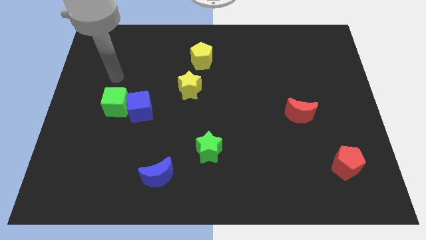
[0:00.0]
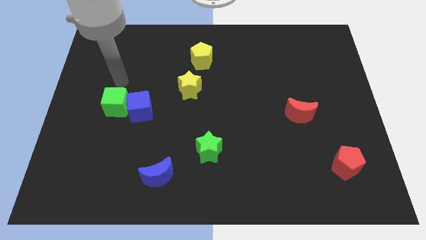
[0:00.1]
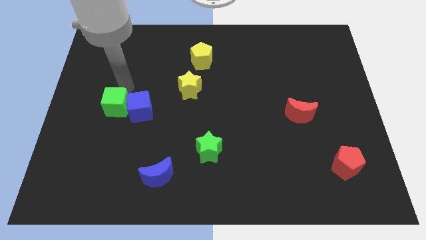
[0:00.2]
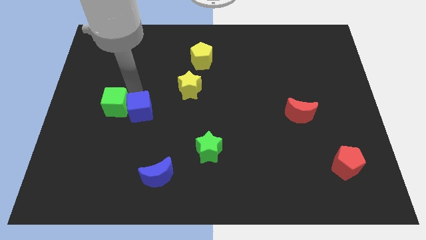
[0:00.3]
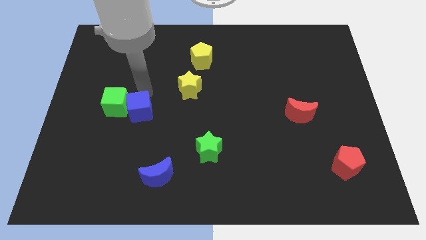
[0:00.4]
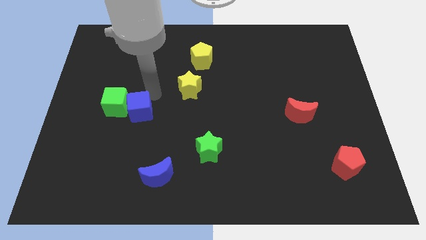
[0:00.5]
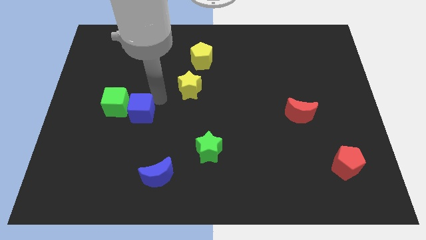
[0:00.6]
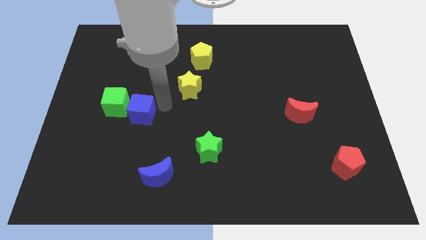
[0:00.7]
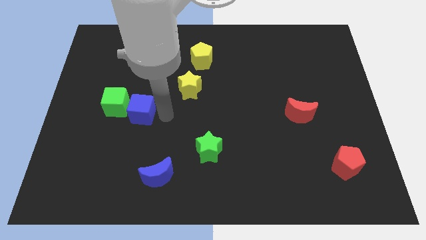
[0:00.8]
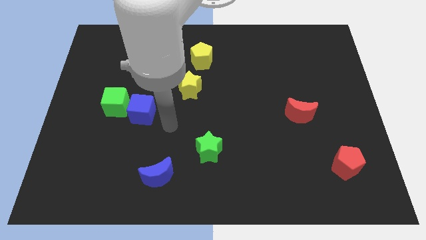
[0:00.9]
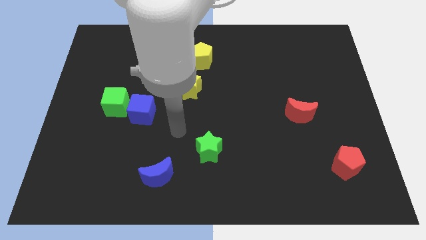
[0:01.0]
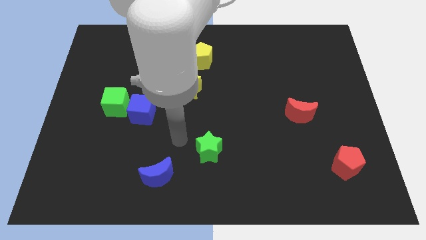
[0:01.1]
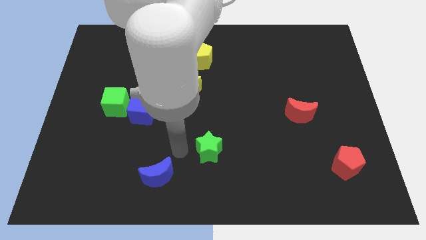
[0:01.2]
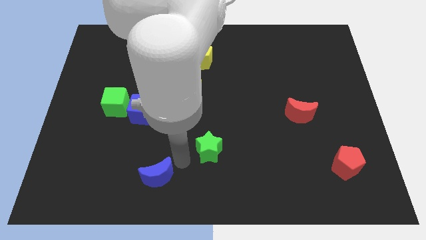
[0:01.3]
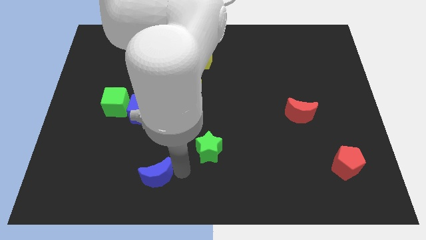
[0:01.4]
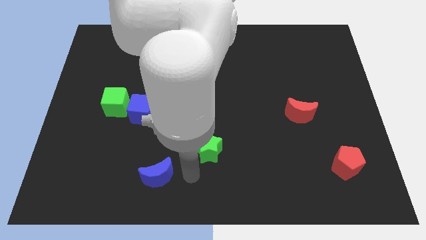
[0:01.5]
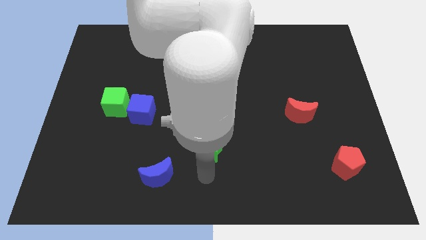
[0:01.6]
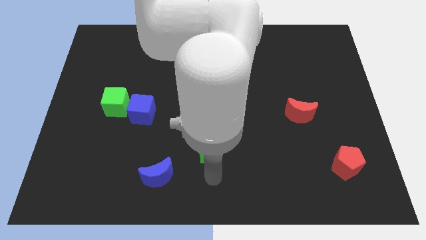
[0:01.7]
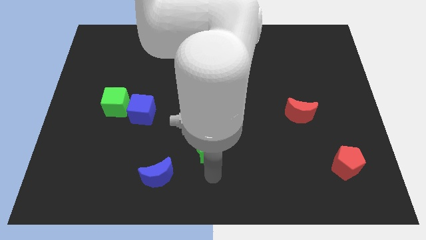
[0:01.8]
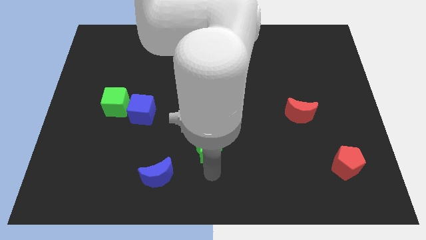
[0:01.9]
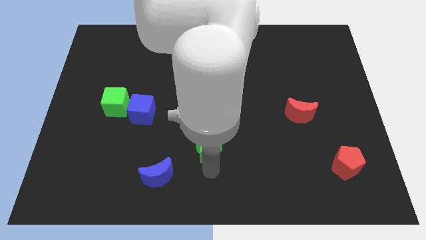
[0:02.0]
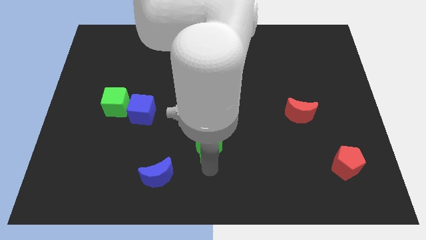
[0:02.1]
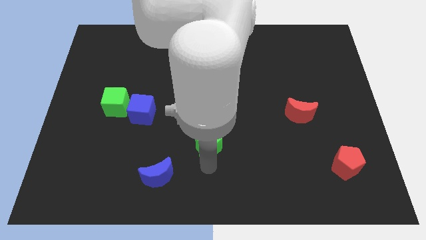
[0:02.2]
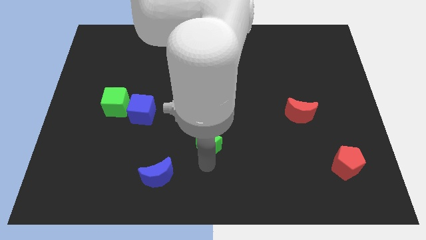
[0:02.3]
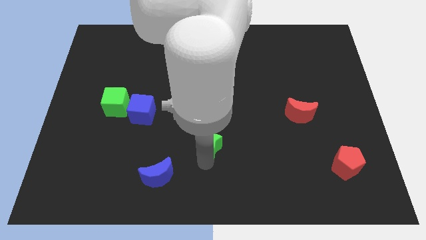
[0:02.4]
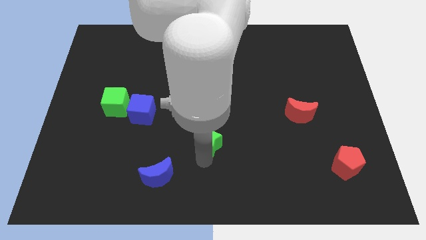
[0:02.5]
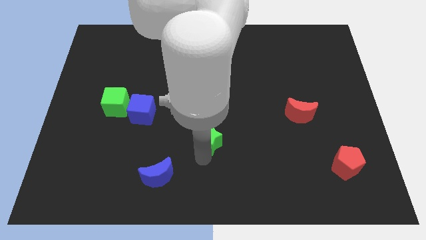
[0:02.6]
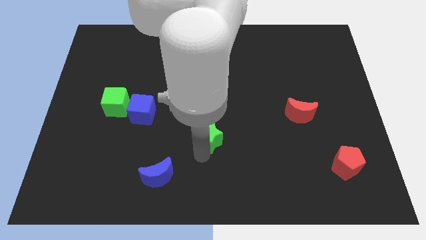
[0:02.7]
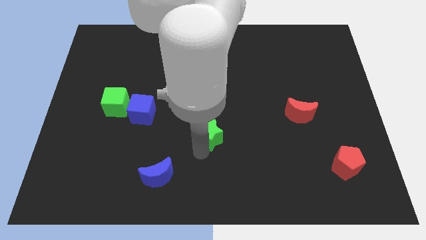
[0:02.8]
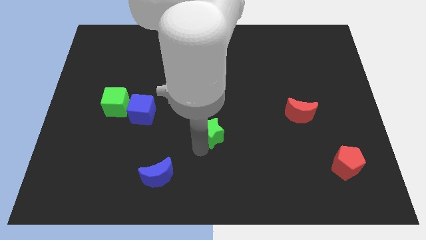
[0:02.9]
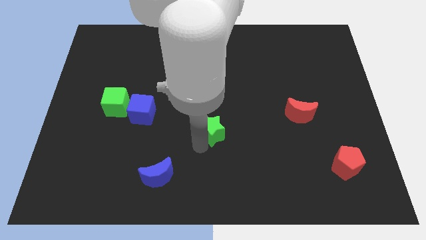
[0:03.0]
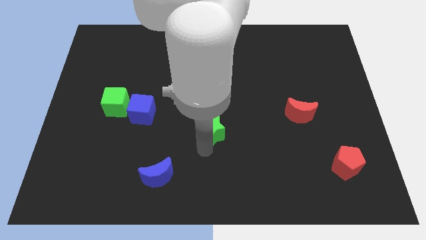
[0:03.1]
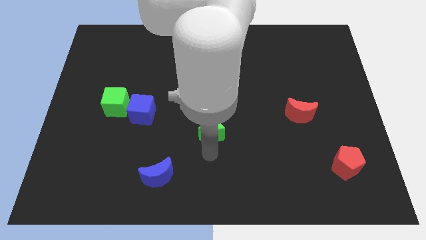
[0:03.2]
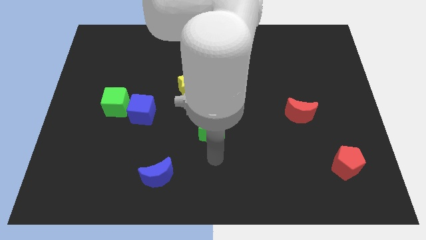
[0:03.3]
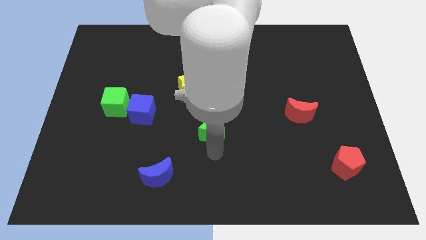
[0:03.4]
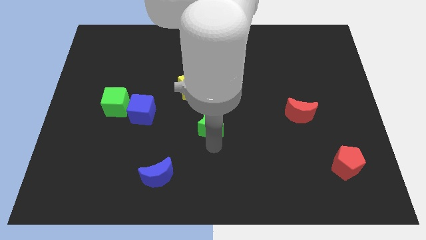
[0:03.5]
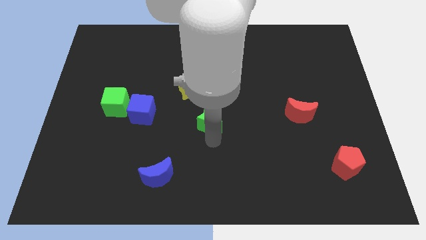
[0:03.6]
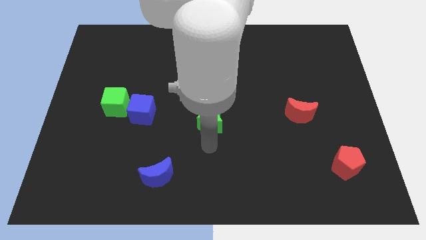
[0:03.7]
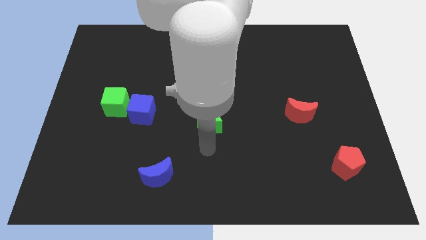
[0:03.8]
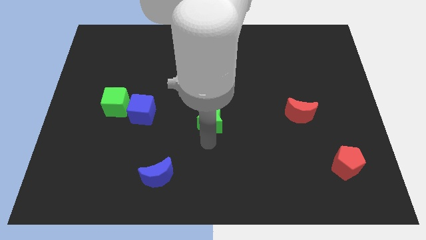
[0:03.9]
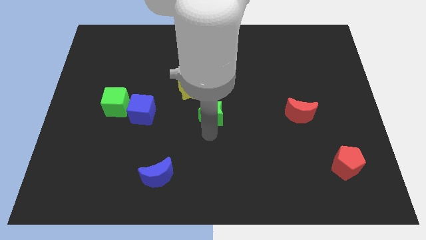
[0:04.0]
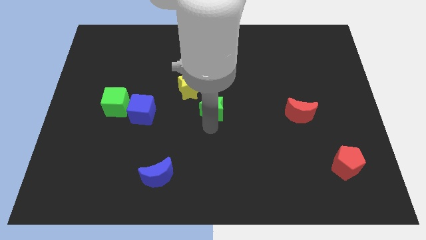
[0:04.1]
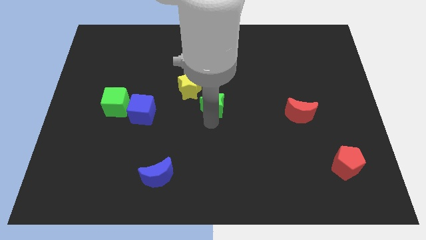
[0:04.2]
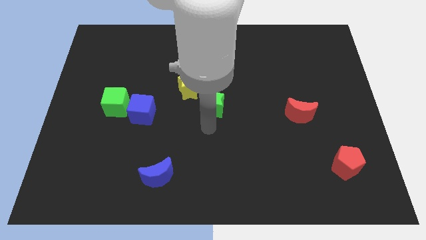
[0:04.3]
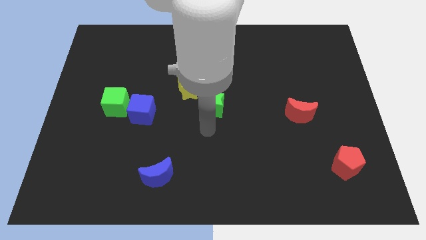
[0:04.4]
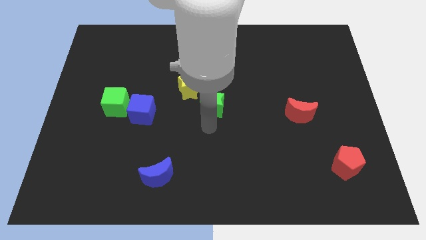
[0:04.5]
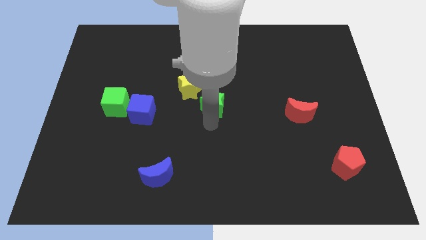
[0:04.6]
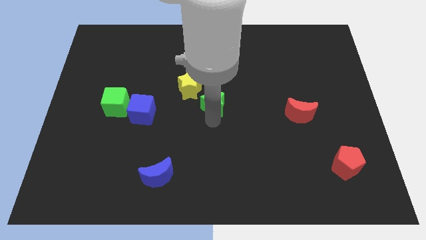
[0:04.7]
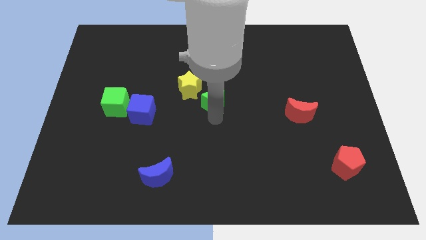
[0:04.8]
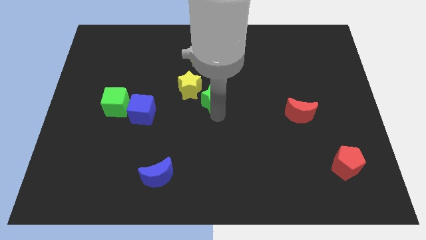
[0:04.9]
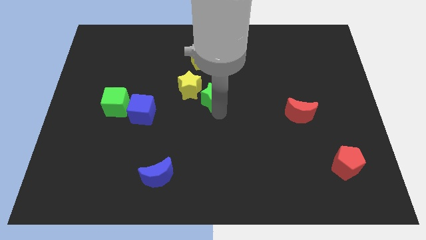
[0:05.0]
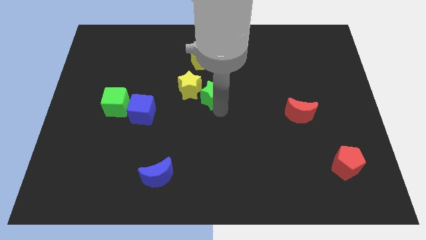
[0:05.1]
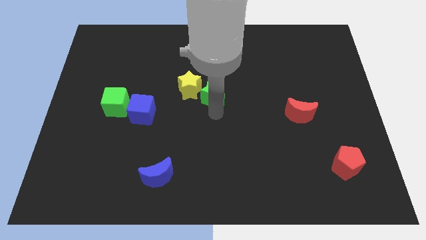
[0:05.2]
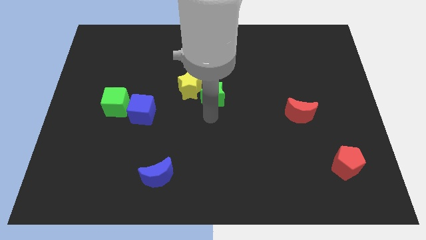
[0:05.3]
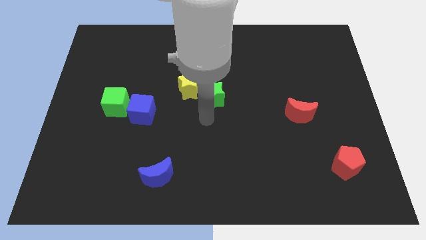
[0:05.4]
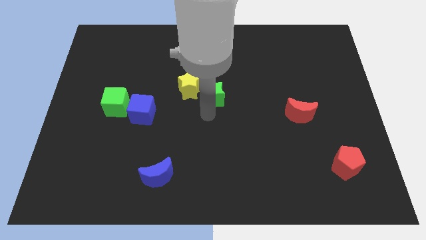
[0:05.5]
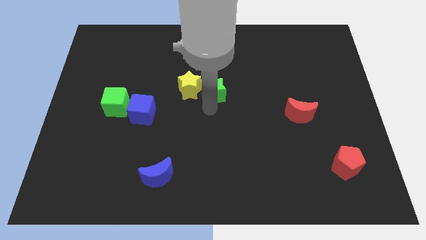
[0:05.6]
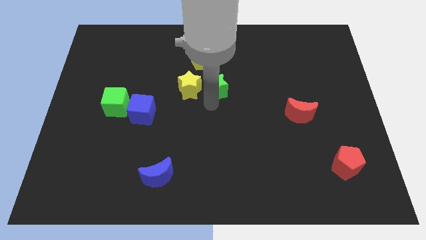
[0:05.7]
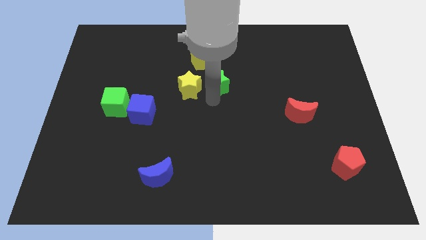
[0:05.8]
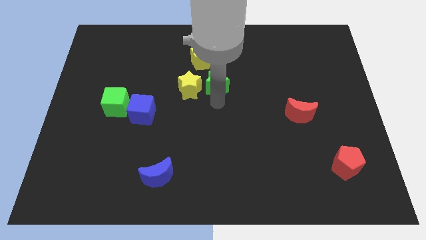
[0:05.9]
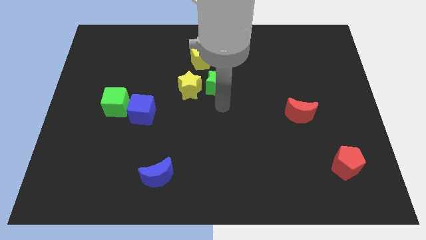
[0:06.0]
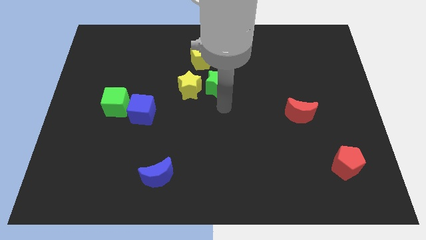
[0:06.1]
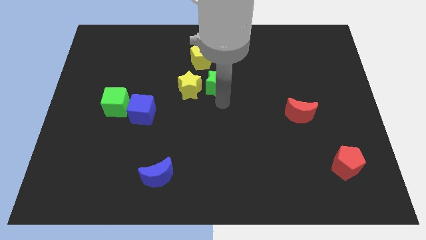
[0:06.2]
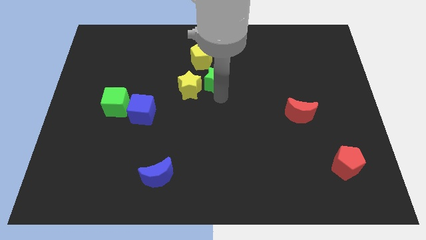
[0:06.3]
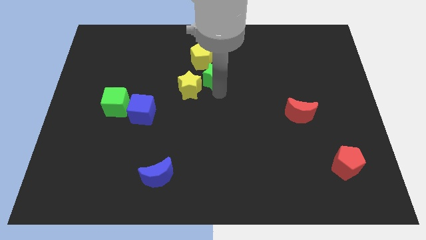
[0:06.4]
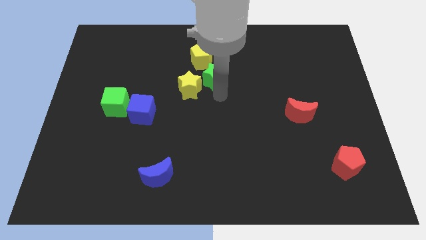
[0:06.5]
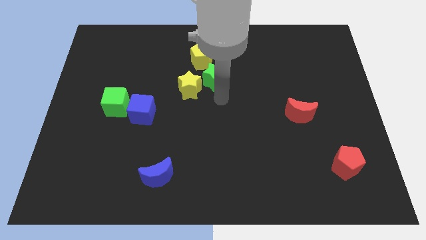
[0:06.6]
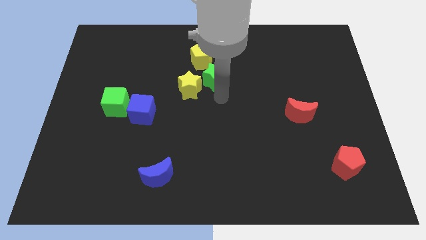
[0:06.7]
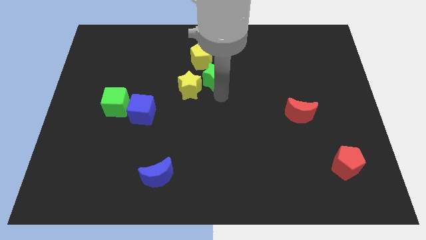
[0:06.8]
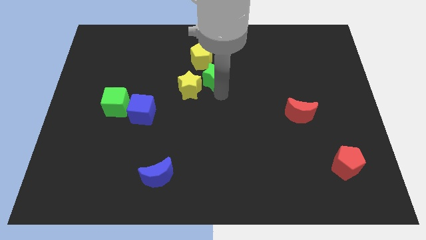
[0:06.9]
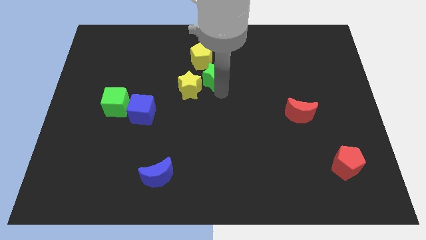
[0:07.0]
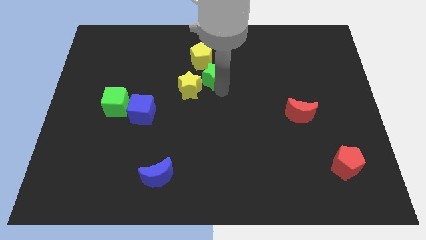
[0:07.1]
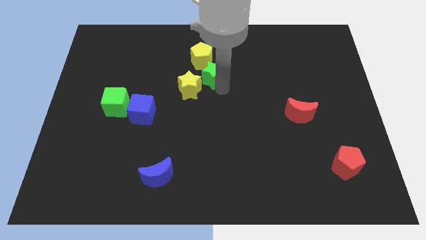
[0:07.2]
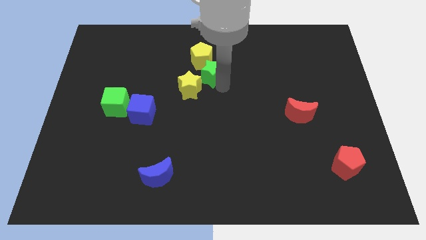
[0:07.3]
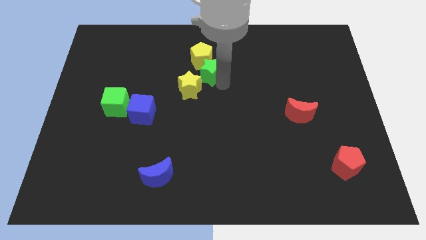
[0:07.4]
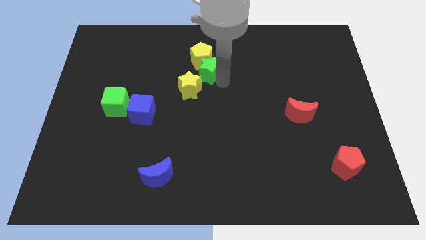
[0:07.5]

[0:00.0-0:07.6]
push the green star close to the yellow pentagon
